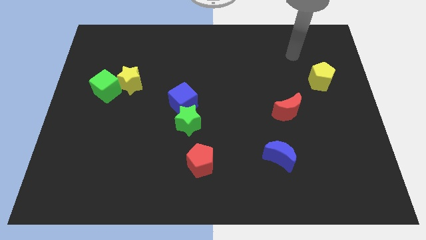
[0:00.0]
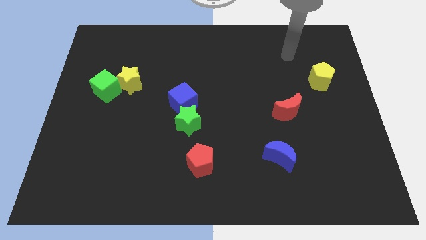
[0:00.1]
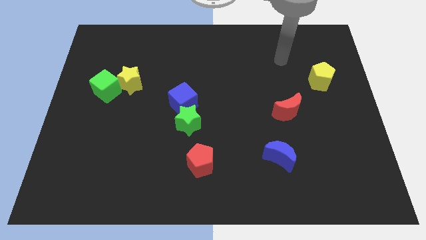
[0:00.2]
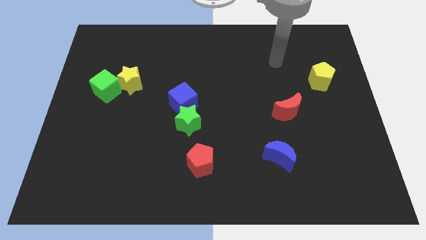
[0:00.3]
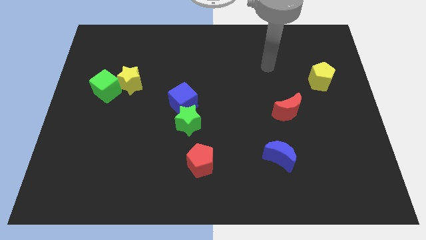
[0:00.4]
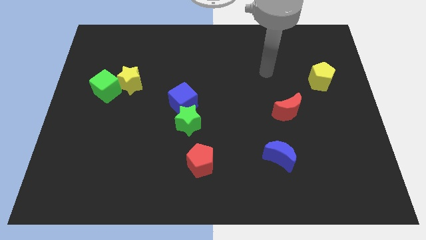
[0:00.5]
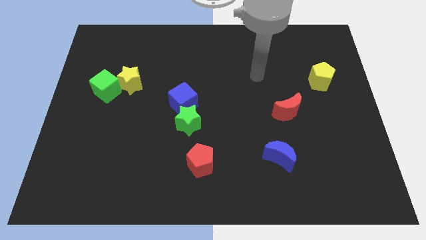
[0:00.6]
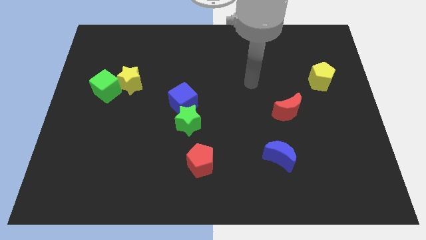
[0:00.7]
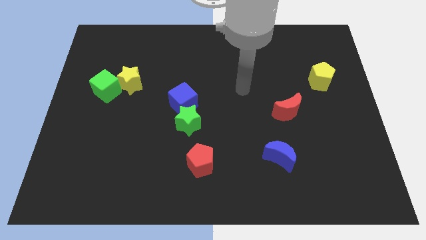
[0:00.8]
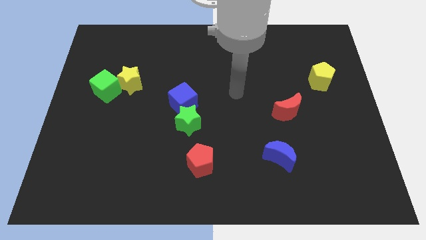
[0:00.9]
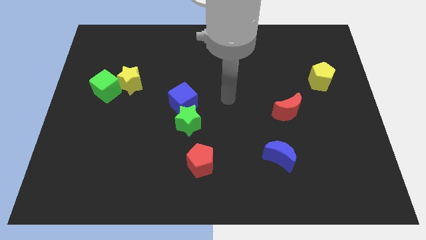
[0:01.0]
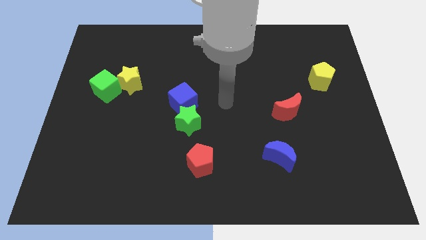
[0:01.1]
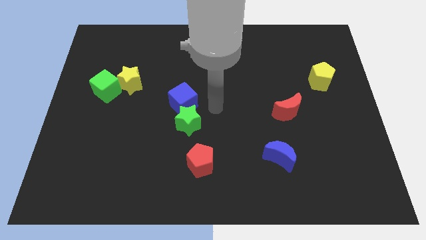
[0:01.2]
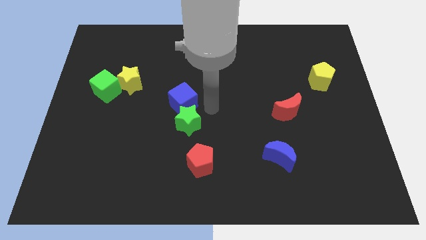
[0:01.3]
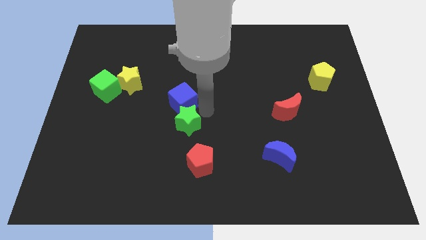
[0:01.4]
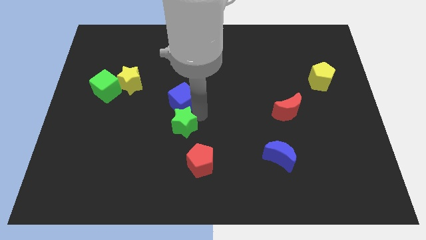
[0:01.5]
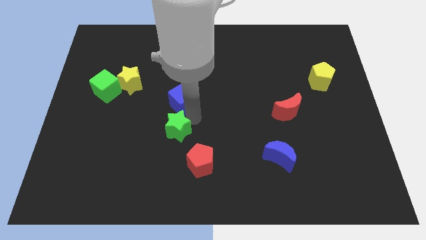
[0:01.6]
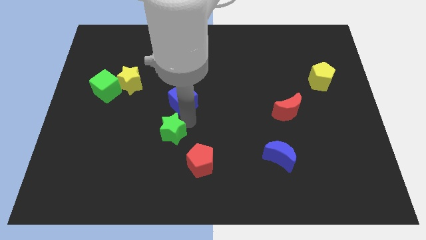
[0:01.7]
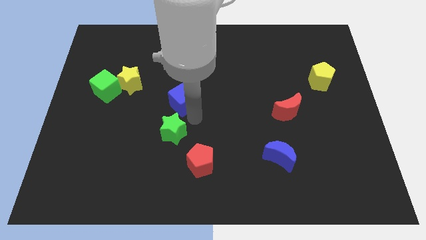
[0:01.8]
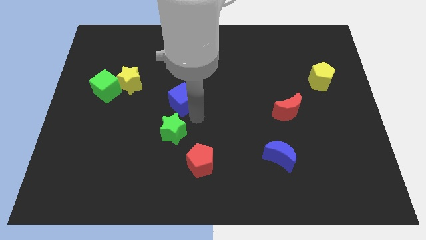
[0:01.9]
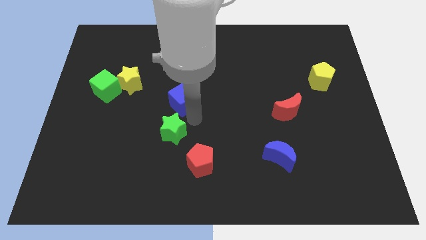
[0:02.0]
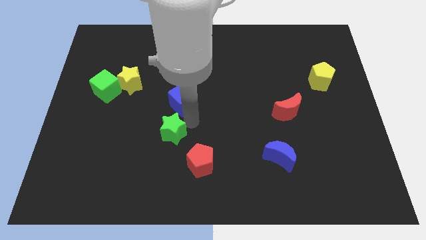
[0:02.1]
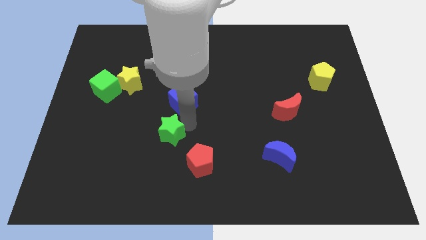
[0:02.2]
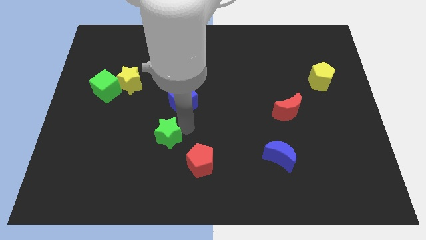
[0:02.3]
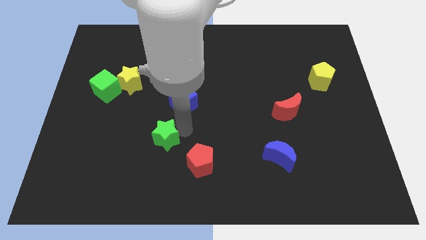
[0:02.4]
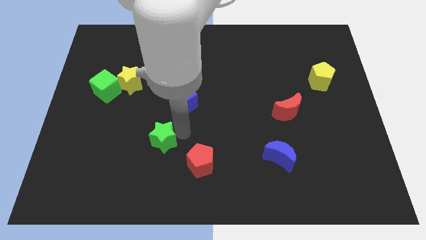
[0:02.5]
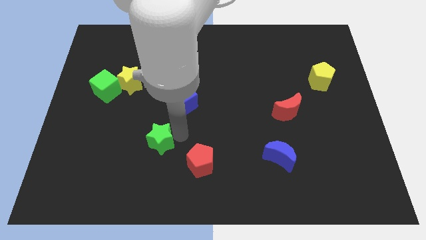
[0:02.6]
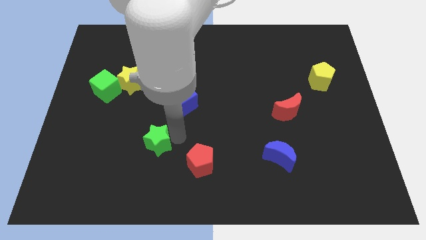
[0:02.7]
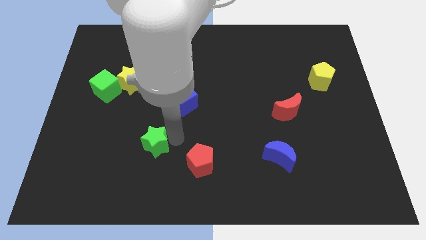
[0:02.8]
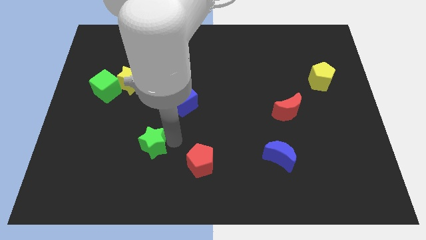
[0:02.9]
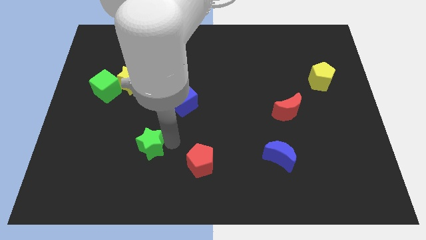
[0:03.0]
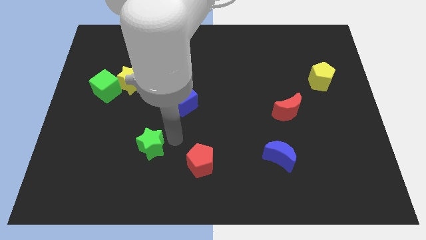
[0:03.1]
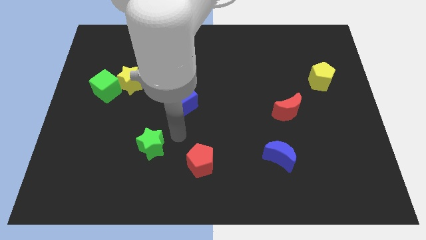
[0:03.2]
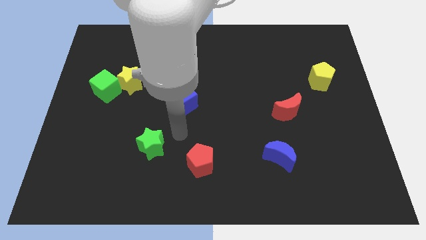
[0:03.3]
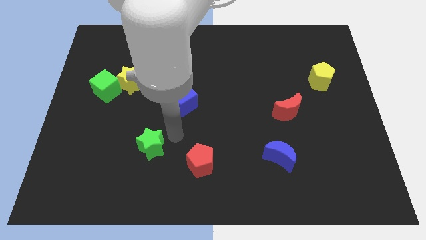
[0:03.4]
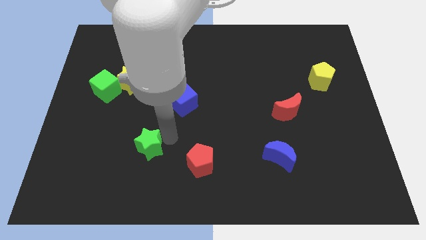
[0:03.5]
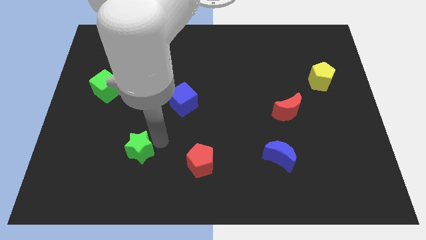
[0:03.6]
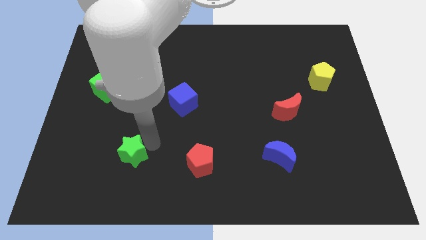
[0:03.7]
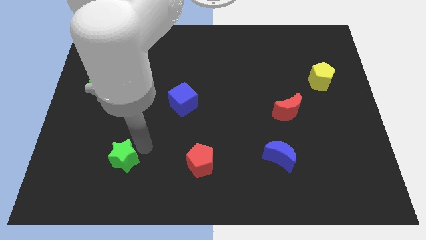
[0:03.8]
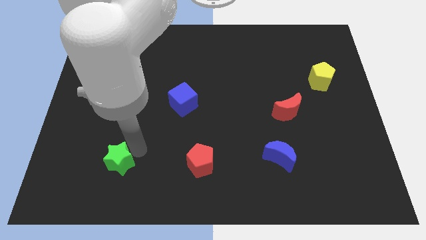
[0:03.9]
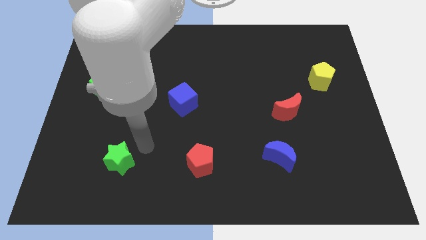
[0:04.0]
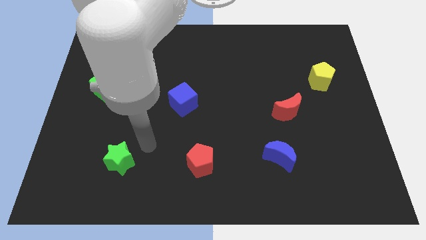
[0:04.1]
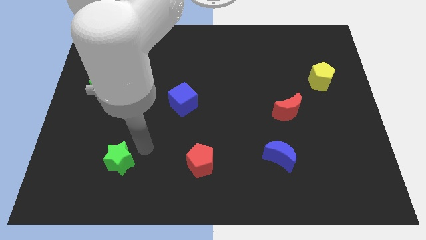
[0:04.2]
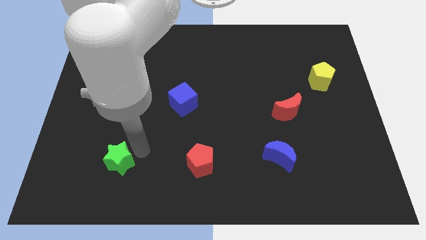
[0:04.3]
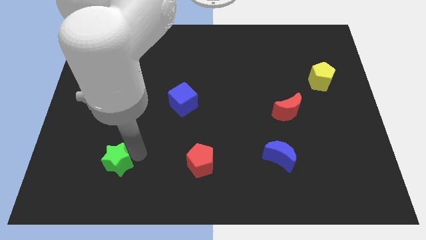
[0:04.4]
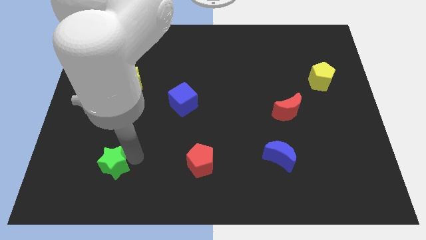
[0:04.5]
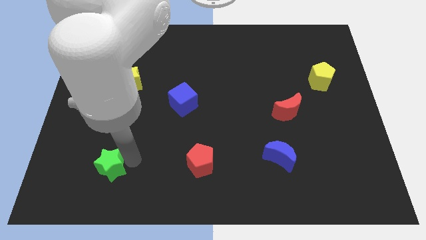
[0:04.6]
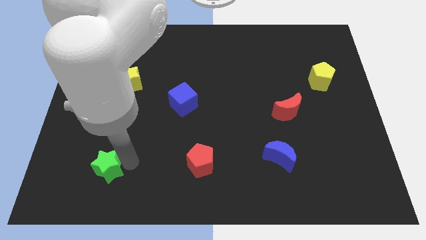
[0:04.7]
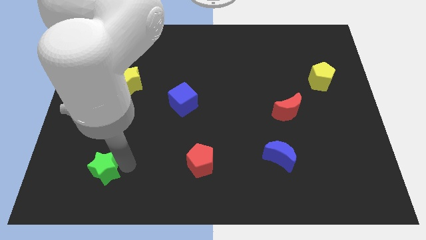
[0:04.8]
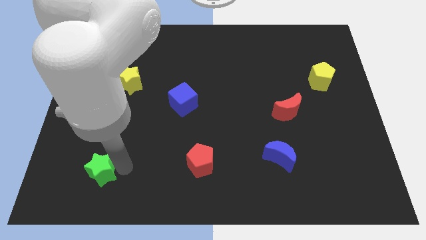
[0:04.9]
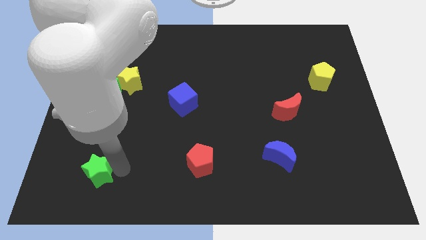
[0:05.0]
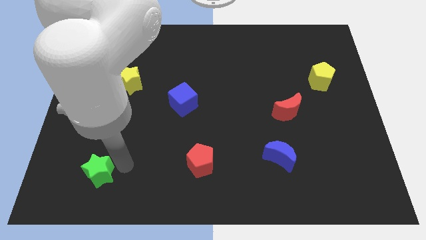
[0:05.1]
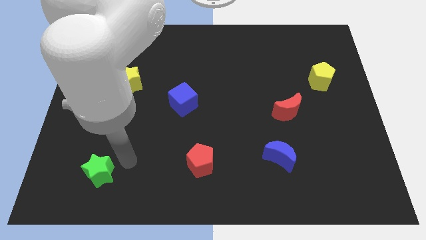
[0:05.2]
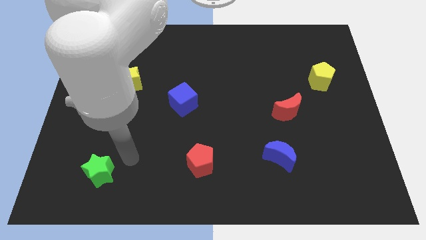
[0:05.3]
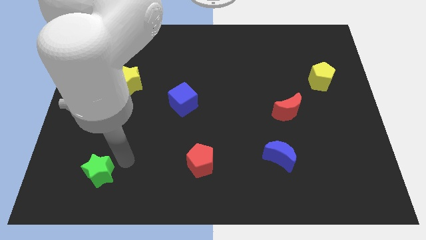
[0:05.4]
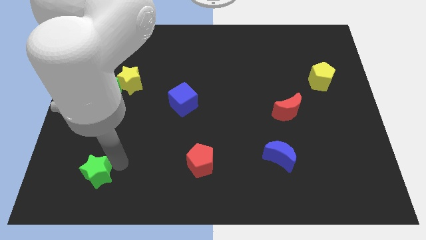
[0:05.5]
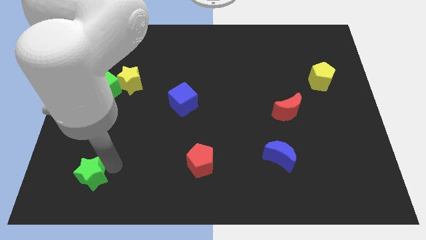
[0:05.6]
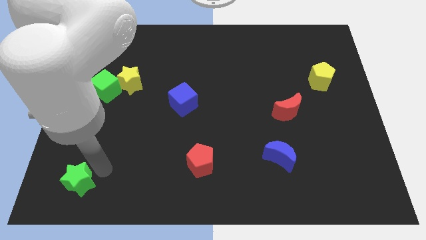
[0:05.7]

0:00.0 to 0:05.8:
slide the green star to the bottom left corner

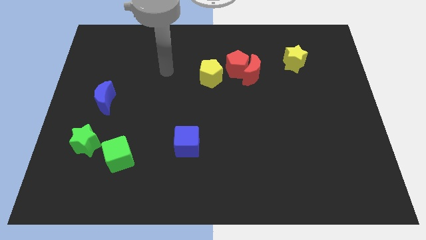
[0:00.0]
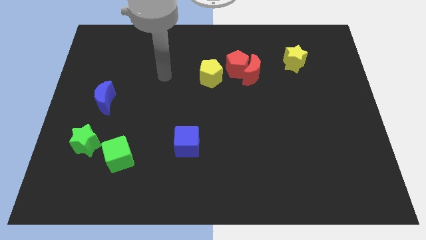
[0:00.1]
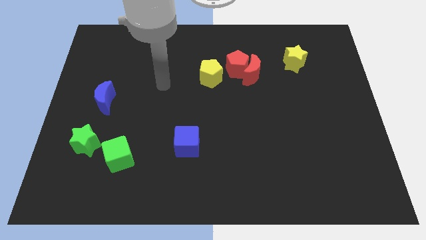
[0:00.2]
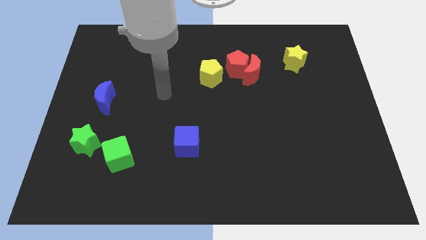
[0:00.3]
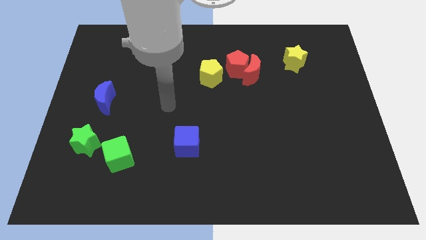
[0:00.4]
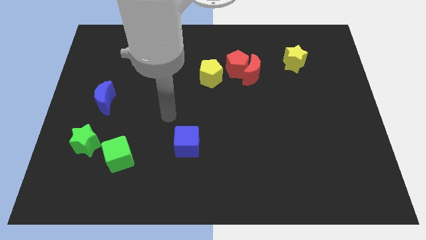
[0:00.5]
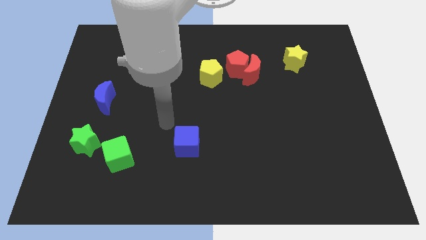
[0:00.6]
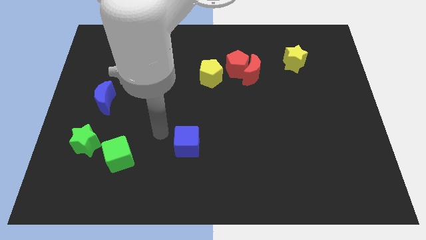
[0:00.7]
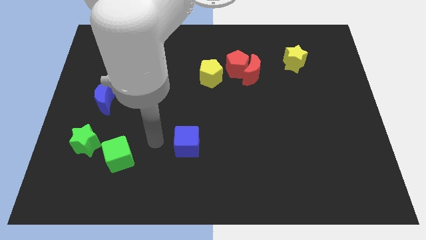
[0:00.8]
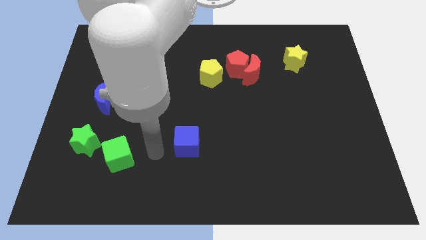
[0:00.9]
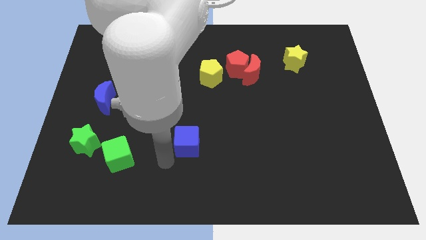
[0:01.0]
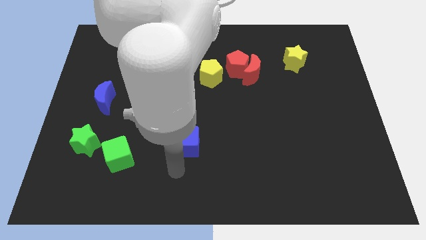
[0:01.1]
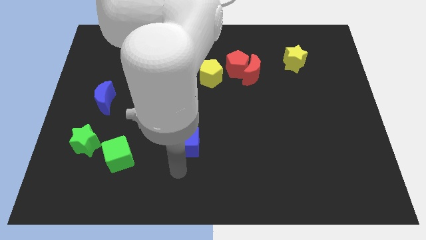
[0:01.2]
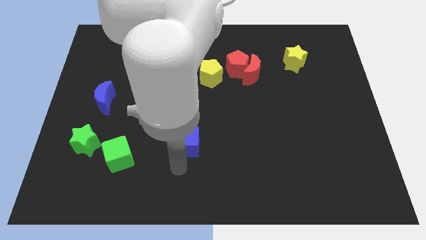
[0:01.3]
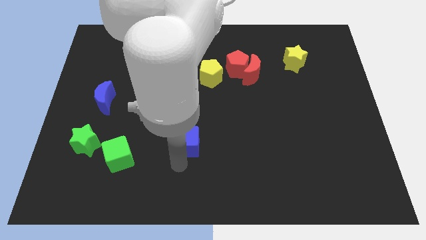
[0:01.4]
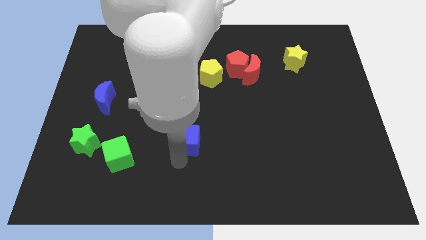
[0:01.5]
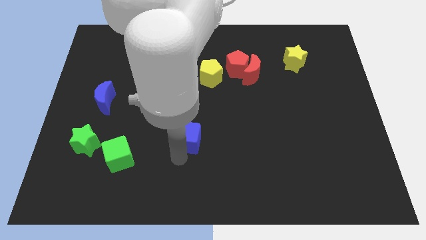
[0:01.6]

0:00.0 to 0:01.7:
slide the blue cube to the middle

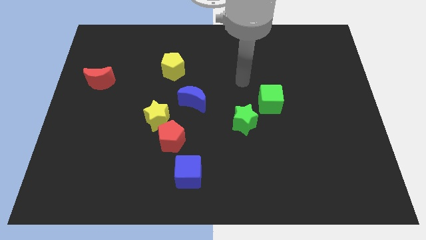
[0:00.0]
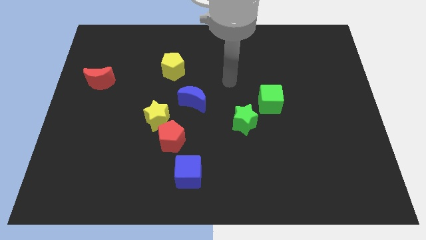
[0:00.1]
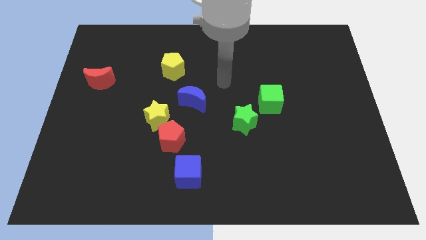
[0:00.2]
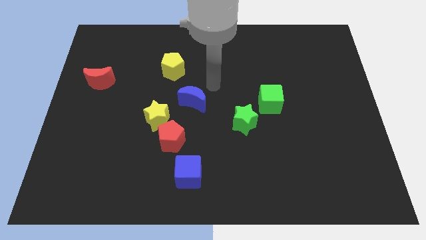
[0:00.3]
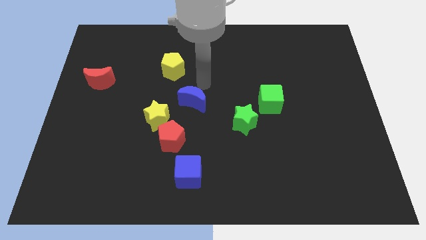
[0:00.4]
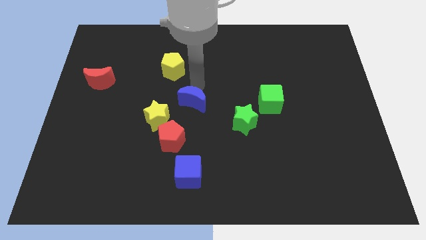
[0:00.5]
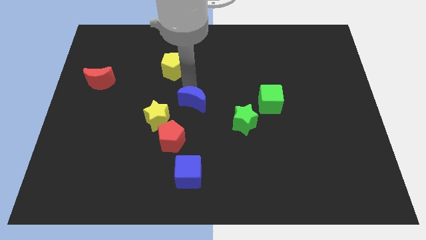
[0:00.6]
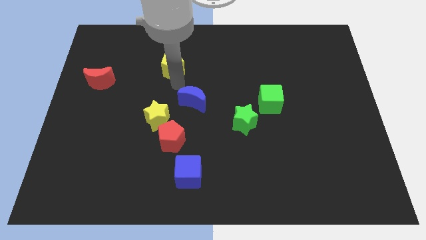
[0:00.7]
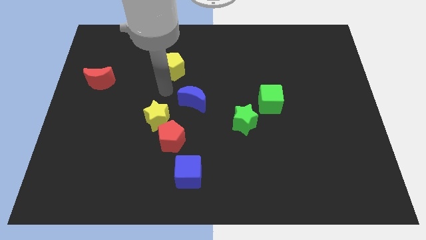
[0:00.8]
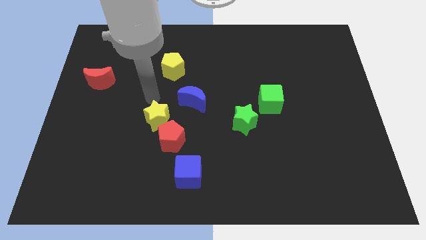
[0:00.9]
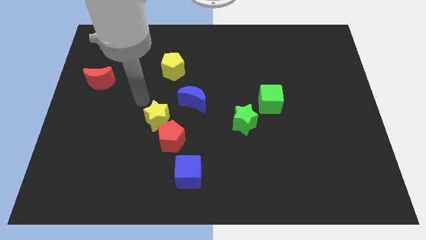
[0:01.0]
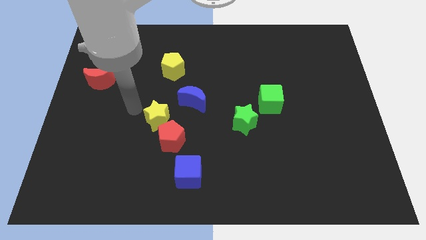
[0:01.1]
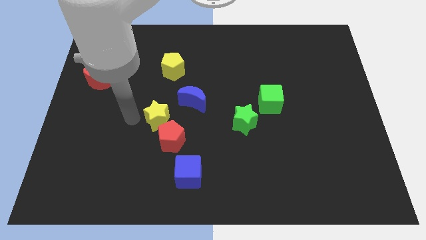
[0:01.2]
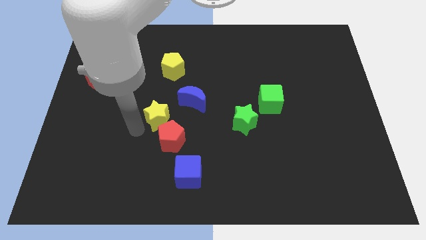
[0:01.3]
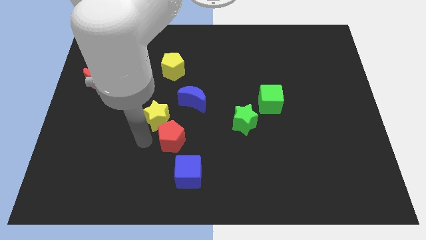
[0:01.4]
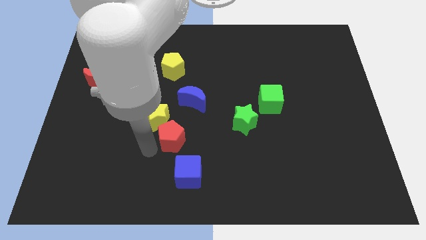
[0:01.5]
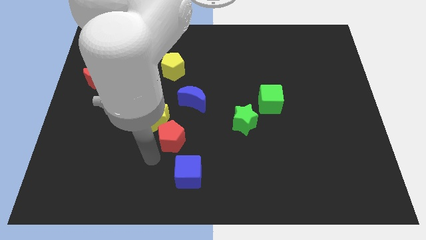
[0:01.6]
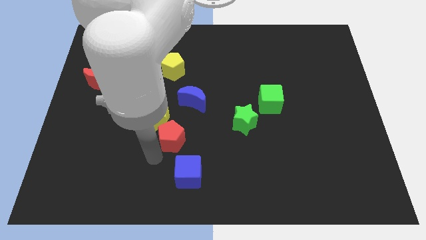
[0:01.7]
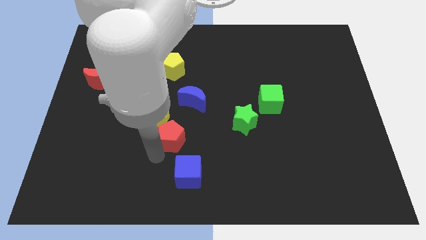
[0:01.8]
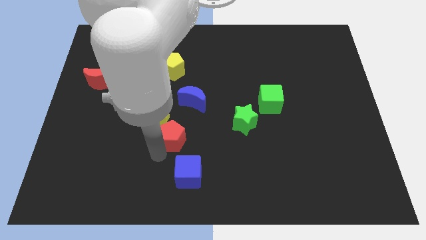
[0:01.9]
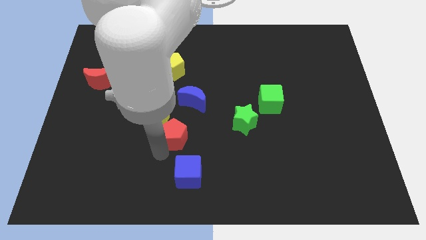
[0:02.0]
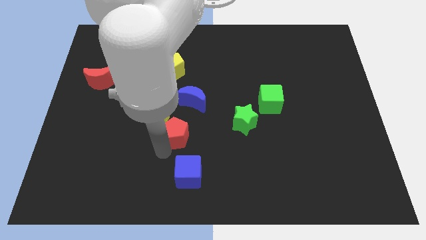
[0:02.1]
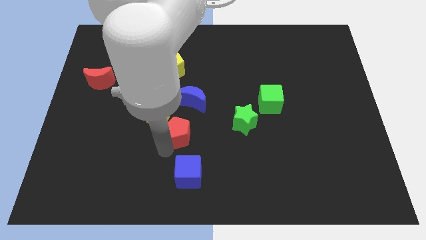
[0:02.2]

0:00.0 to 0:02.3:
slide the red pentagon to the middle of the board
